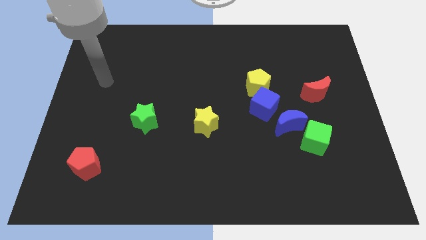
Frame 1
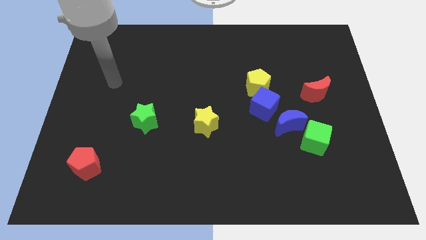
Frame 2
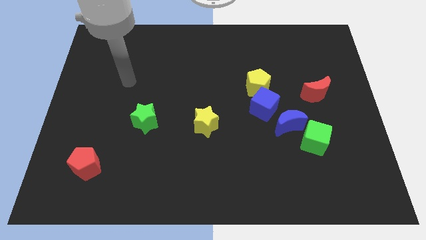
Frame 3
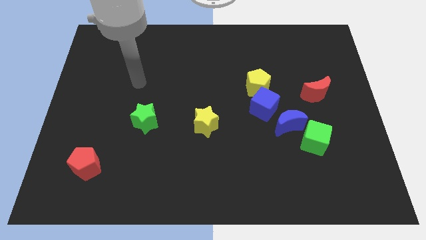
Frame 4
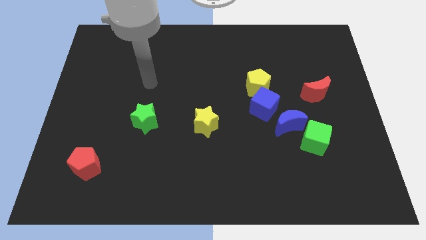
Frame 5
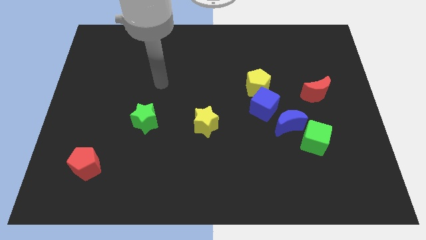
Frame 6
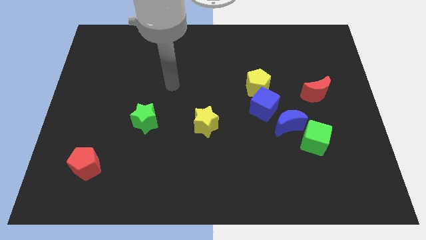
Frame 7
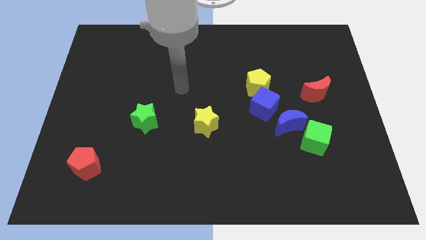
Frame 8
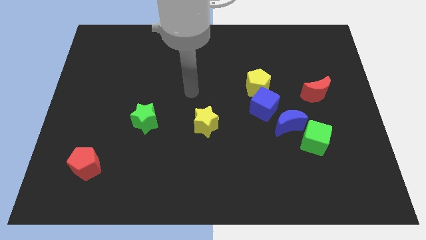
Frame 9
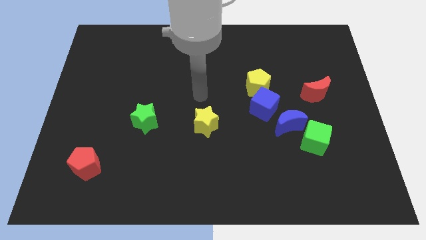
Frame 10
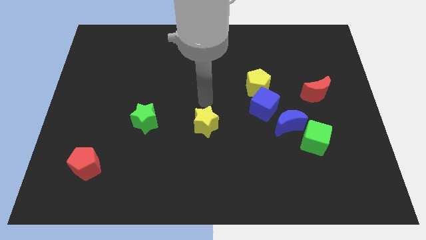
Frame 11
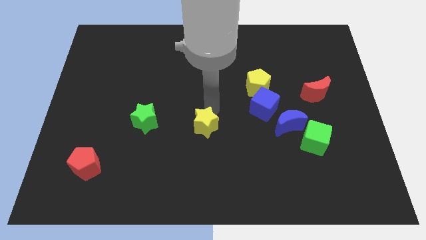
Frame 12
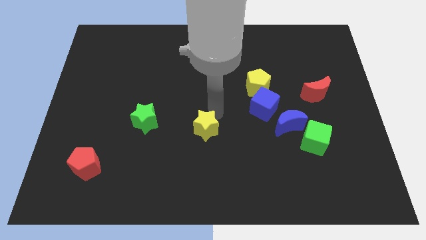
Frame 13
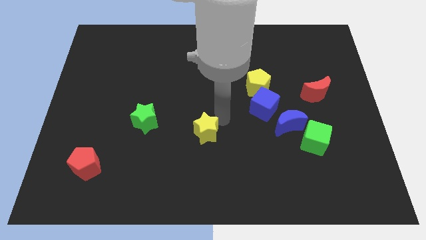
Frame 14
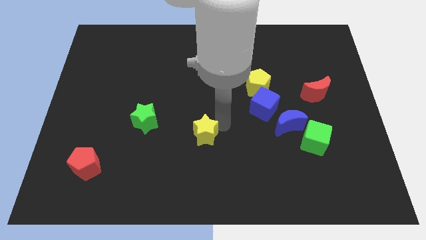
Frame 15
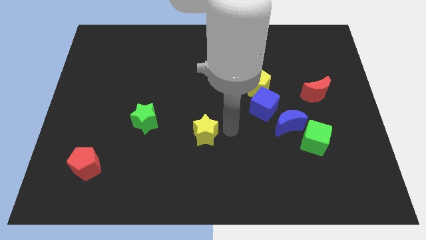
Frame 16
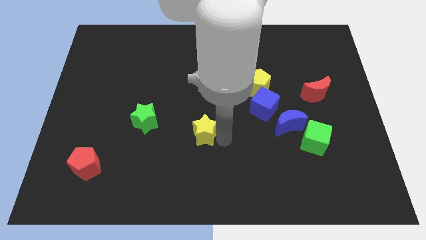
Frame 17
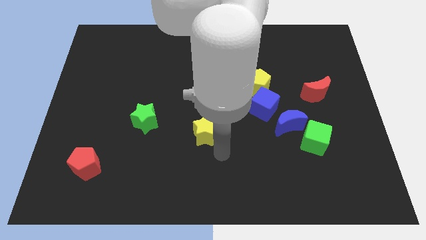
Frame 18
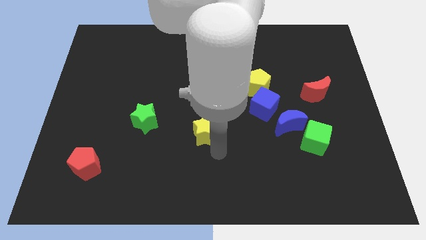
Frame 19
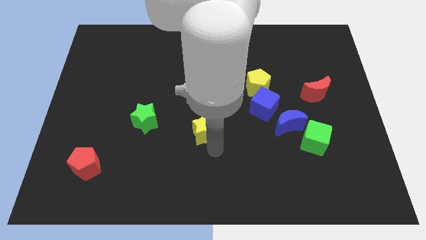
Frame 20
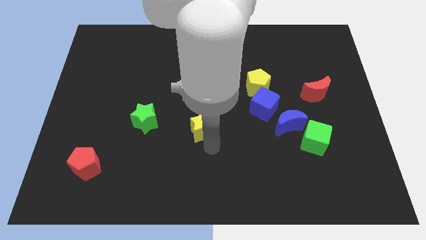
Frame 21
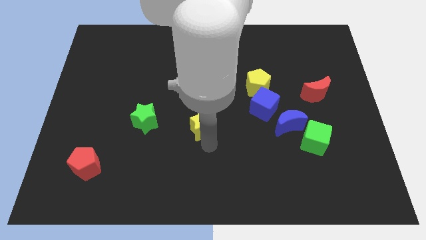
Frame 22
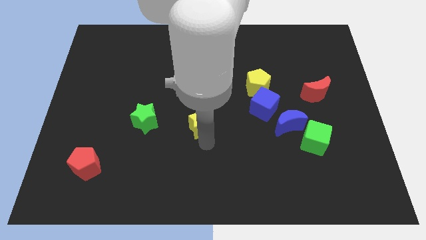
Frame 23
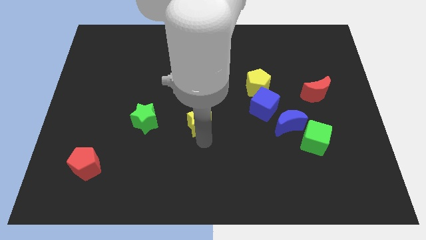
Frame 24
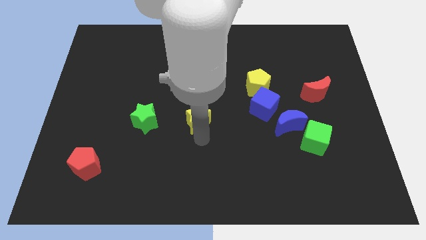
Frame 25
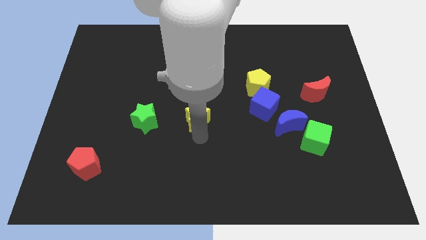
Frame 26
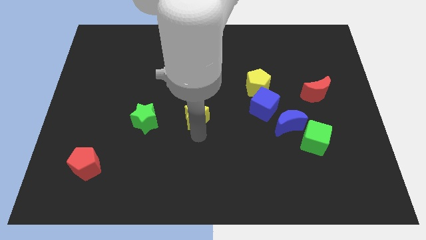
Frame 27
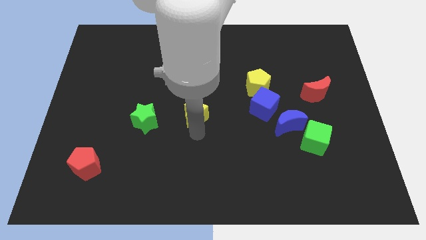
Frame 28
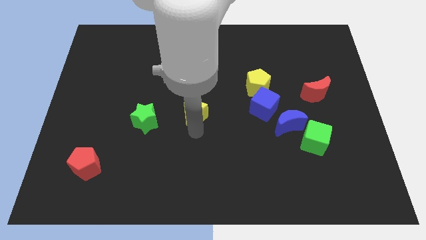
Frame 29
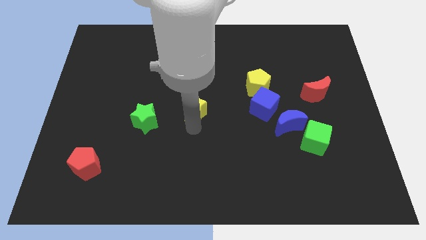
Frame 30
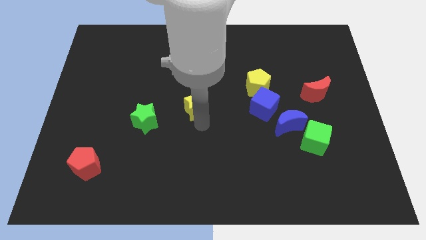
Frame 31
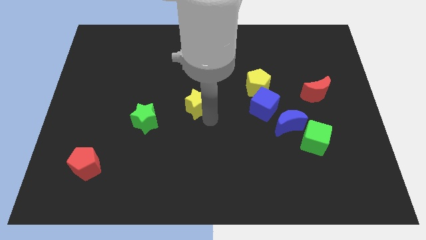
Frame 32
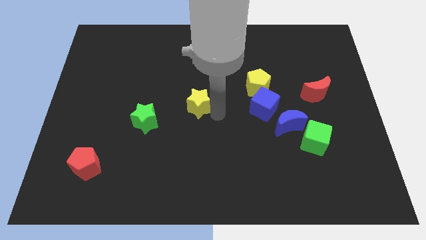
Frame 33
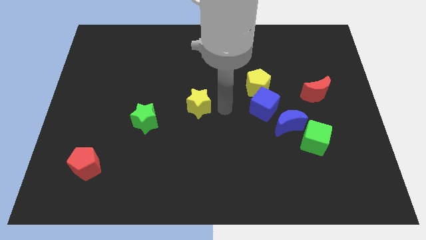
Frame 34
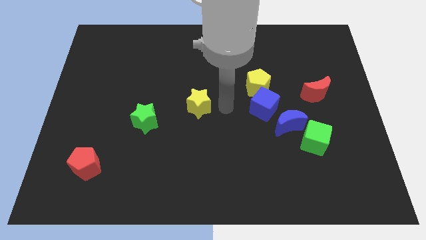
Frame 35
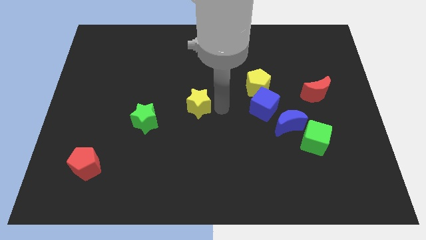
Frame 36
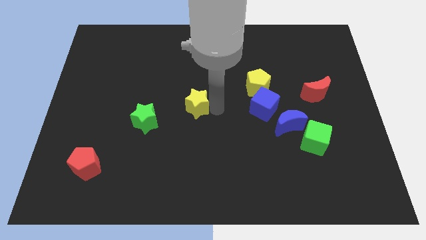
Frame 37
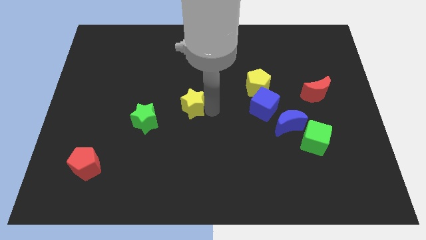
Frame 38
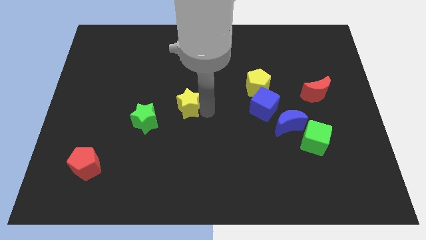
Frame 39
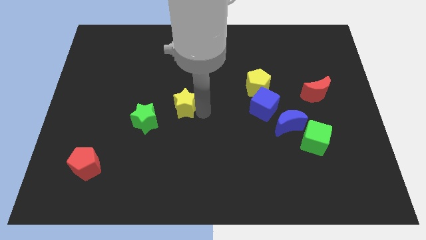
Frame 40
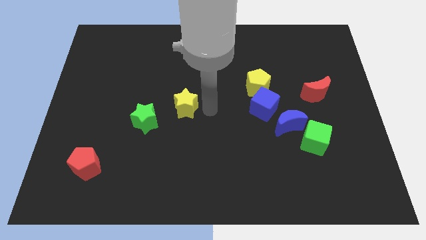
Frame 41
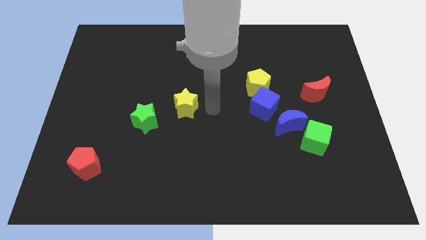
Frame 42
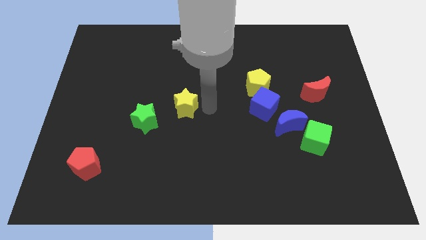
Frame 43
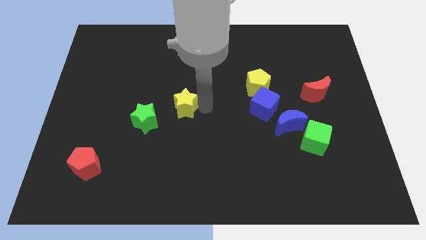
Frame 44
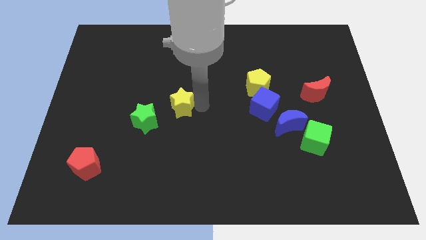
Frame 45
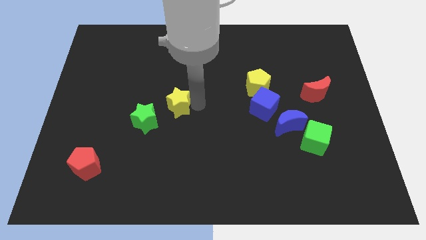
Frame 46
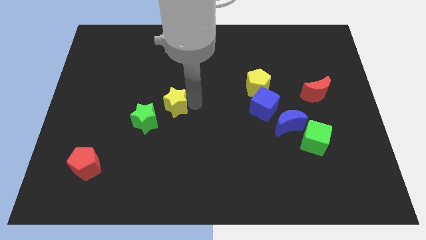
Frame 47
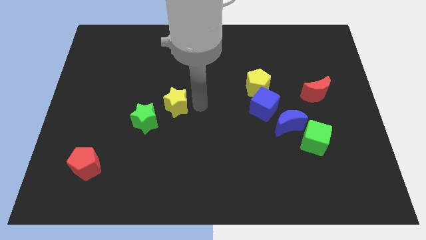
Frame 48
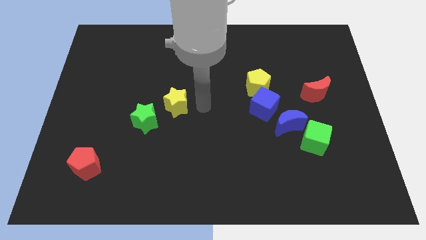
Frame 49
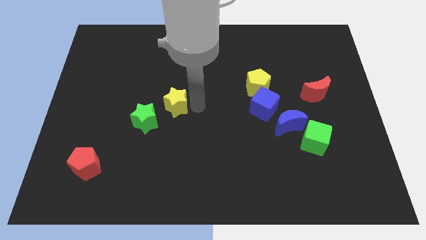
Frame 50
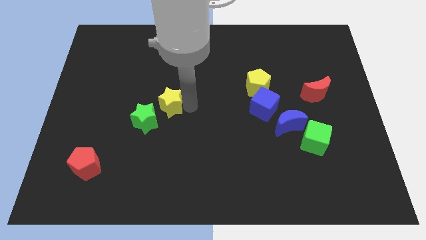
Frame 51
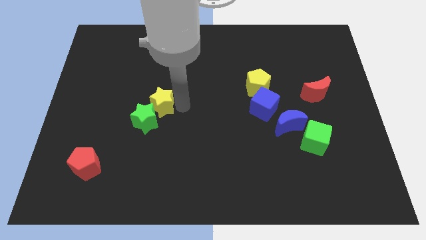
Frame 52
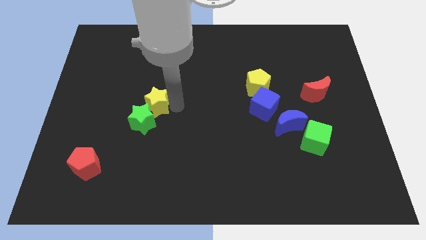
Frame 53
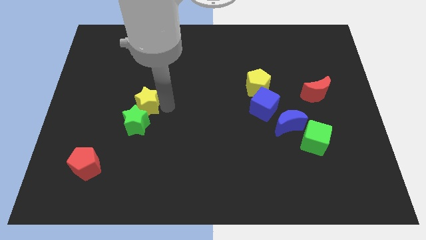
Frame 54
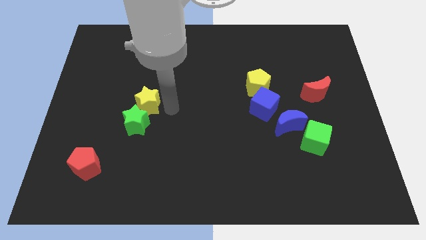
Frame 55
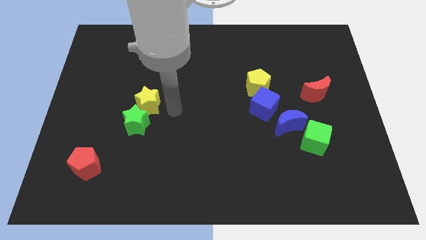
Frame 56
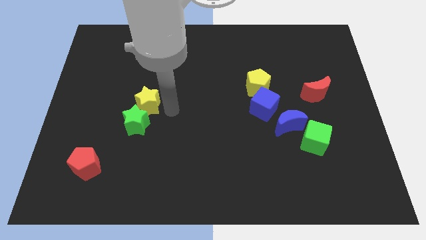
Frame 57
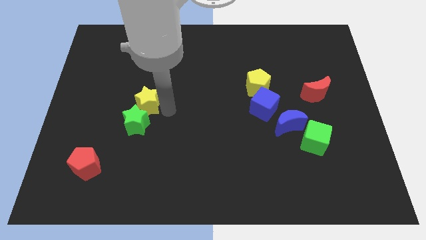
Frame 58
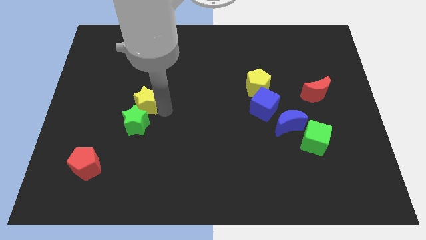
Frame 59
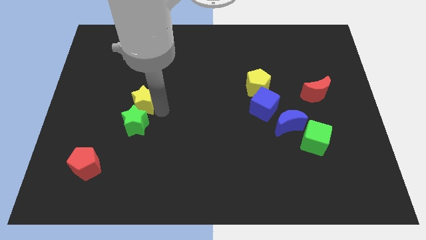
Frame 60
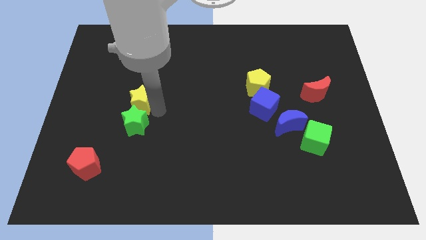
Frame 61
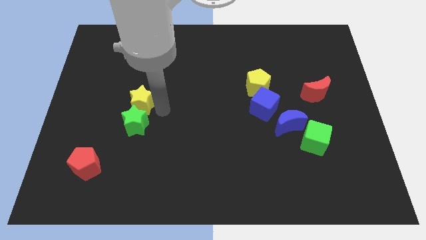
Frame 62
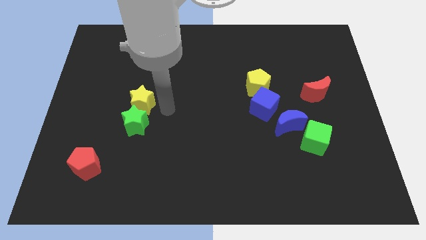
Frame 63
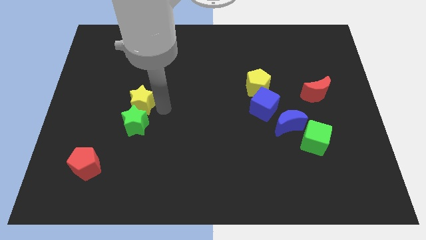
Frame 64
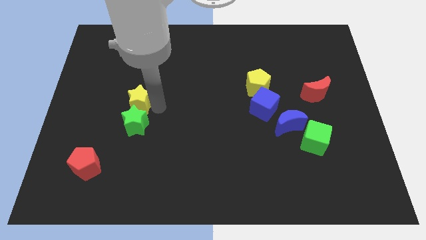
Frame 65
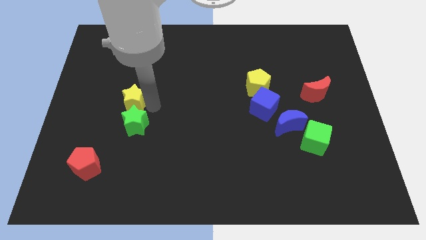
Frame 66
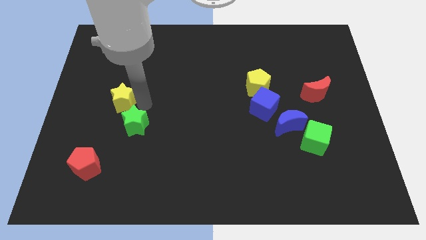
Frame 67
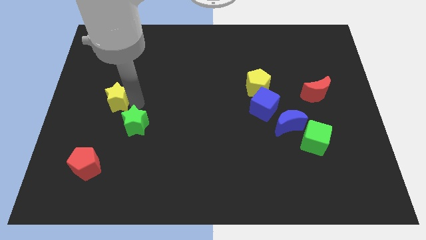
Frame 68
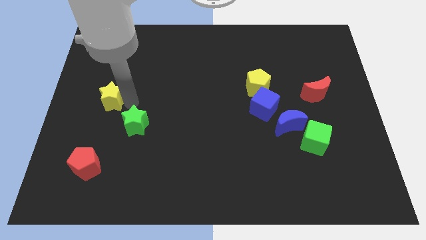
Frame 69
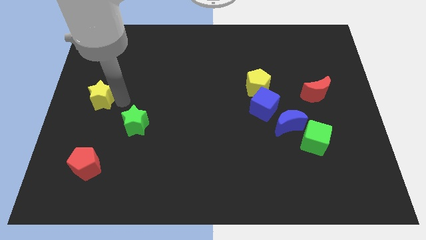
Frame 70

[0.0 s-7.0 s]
slide the yellow star to the left side of the board
